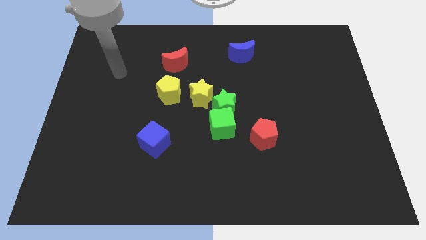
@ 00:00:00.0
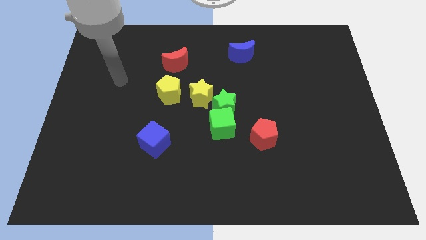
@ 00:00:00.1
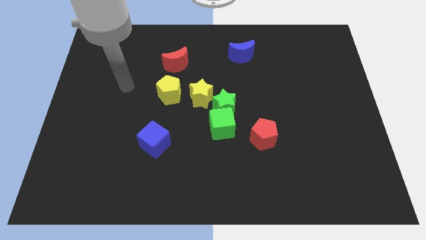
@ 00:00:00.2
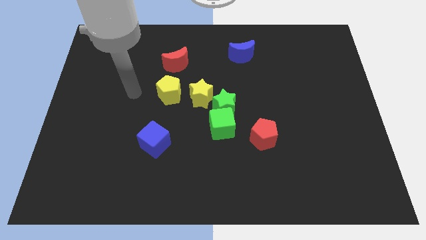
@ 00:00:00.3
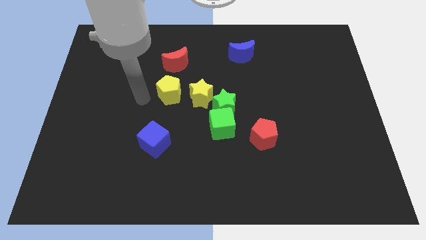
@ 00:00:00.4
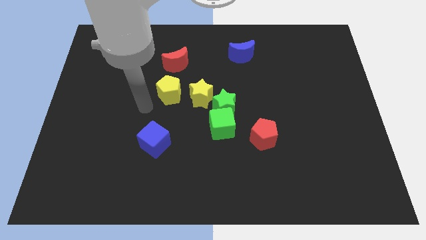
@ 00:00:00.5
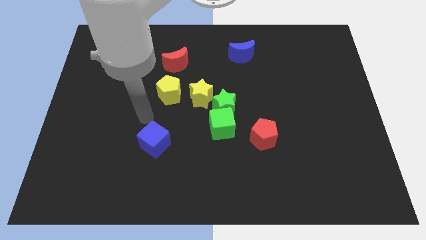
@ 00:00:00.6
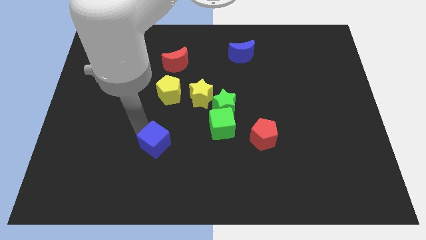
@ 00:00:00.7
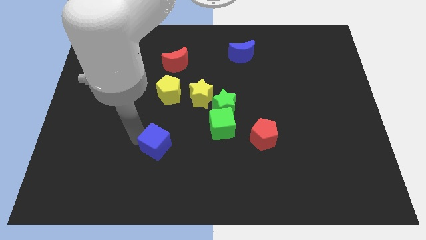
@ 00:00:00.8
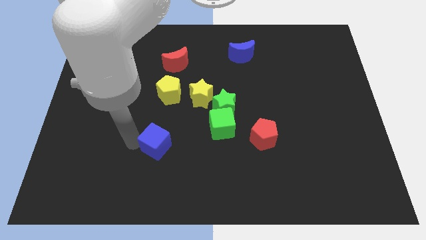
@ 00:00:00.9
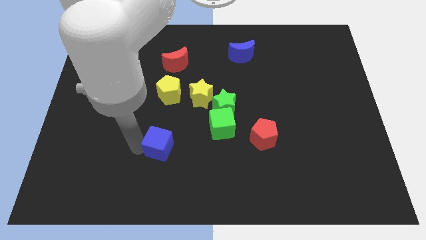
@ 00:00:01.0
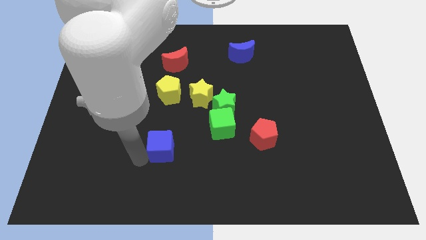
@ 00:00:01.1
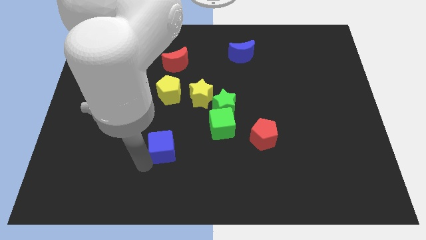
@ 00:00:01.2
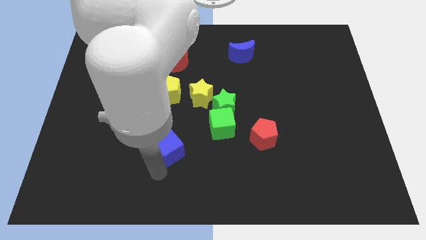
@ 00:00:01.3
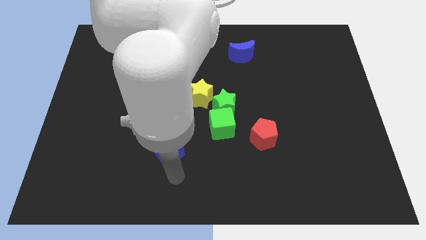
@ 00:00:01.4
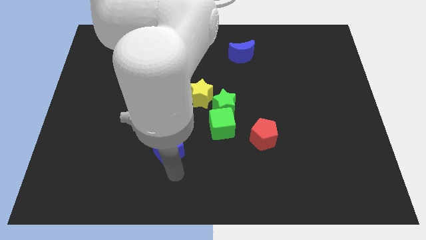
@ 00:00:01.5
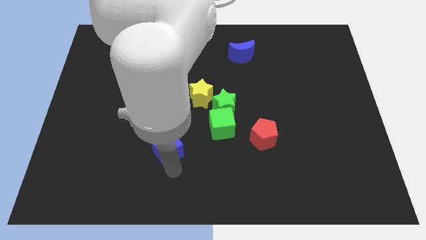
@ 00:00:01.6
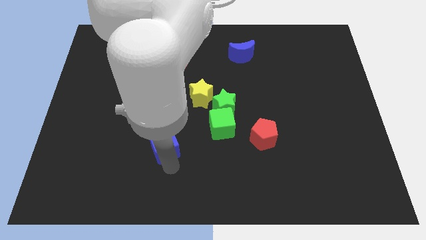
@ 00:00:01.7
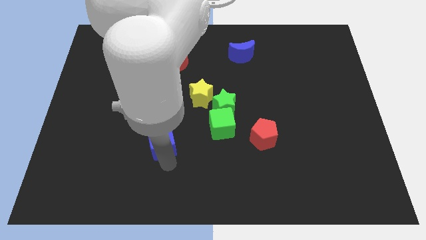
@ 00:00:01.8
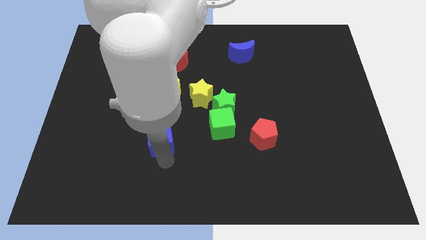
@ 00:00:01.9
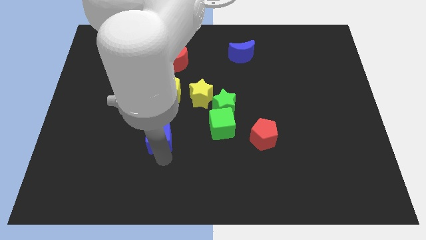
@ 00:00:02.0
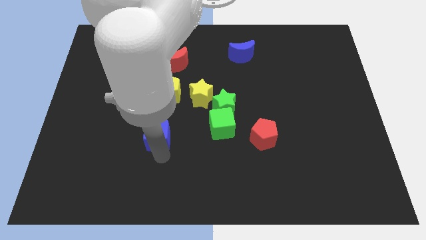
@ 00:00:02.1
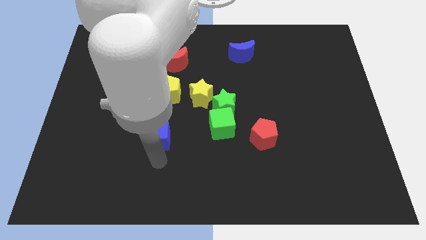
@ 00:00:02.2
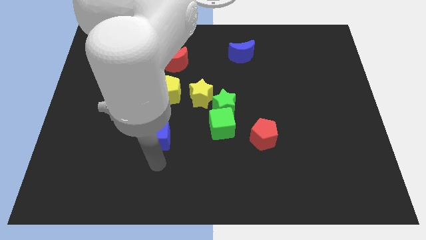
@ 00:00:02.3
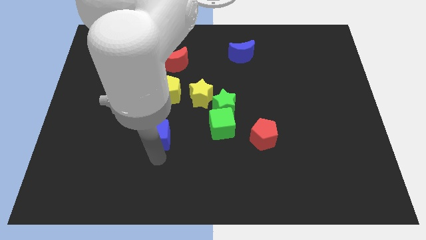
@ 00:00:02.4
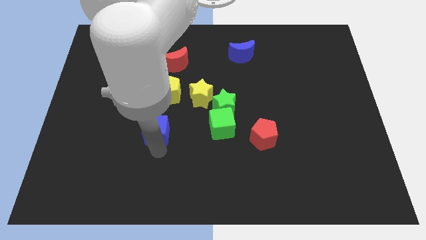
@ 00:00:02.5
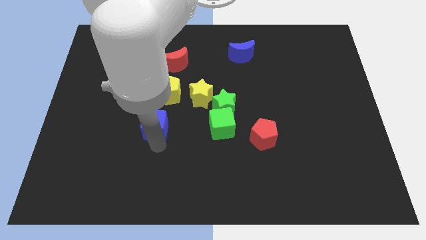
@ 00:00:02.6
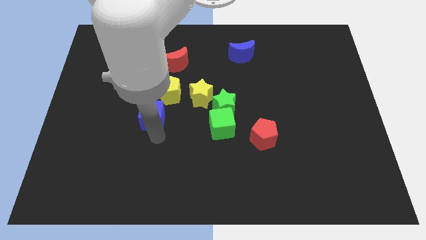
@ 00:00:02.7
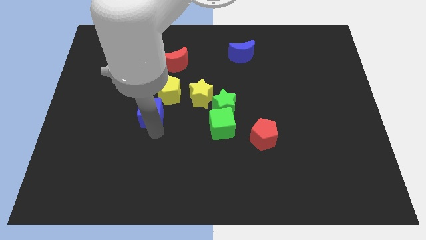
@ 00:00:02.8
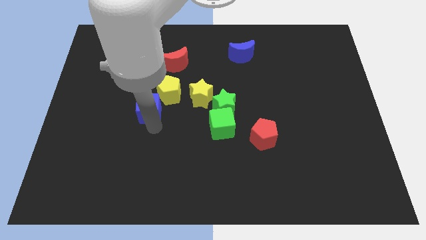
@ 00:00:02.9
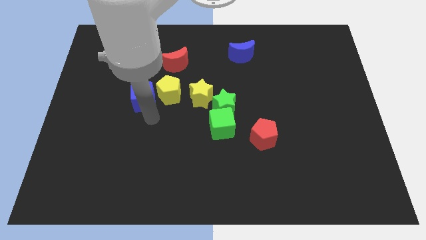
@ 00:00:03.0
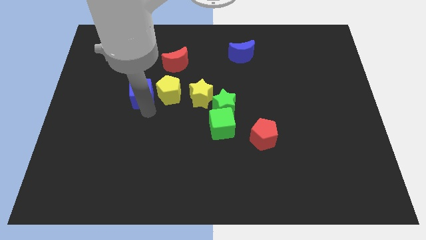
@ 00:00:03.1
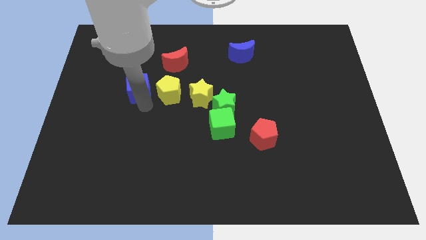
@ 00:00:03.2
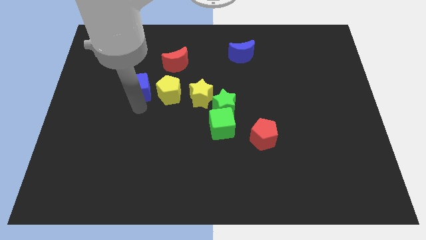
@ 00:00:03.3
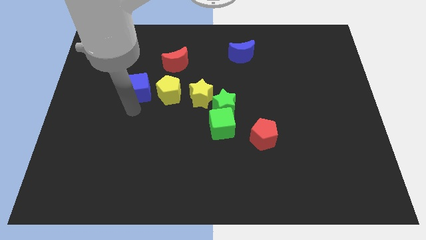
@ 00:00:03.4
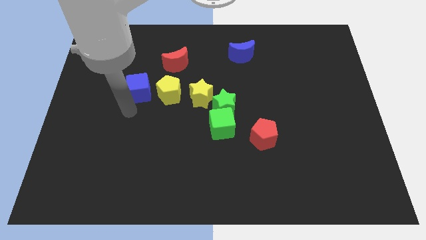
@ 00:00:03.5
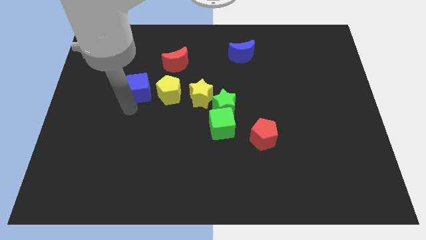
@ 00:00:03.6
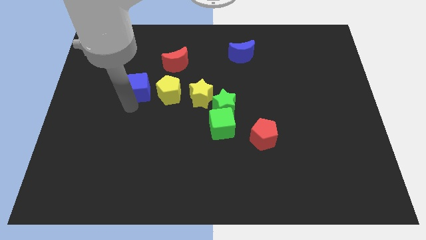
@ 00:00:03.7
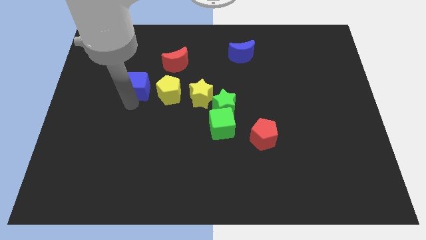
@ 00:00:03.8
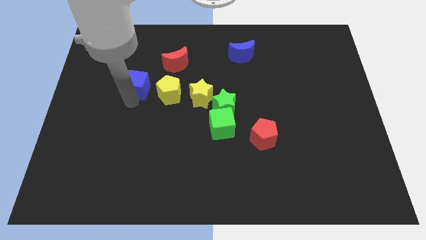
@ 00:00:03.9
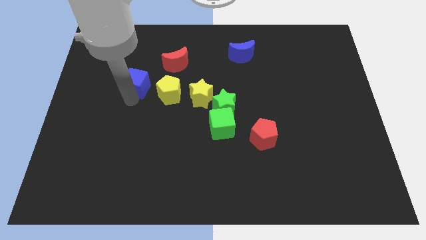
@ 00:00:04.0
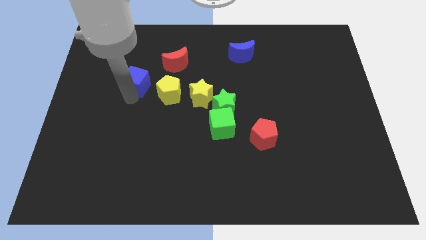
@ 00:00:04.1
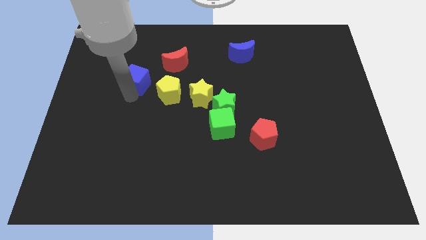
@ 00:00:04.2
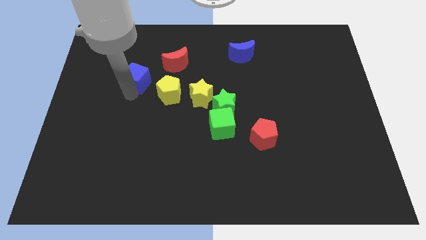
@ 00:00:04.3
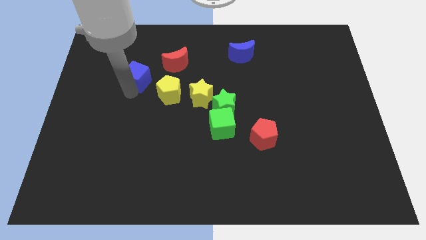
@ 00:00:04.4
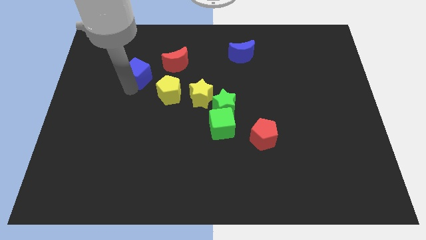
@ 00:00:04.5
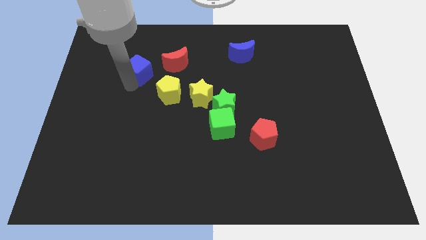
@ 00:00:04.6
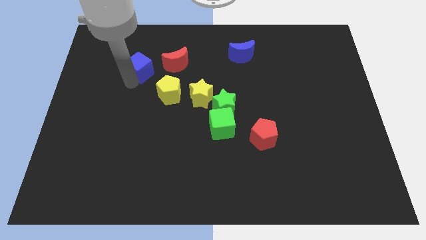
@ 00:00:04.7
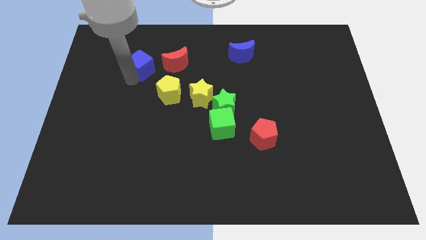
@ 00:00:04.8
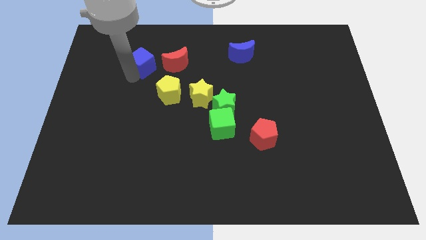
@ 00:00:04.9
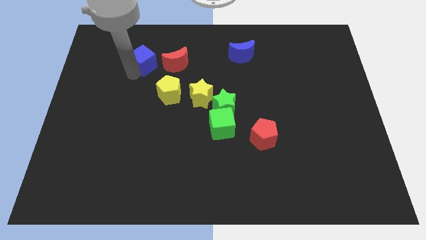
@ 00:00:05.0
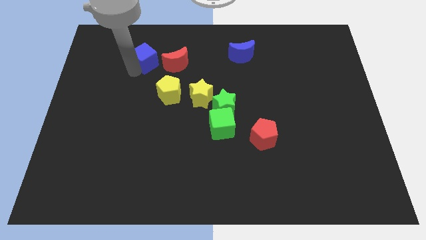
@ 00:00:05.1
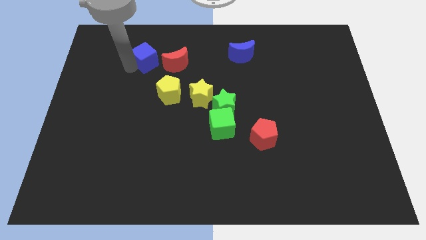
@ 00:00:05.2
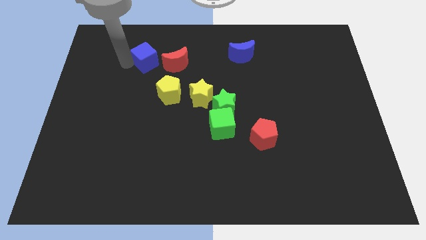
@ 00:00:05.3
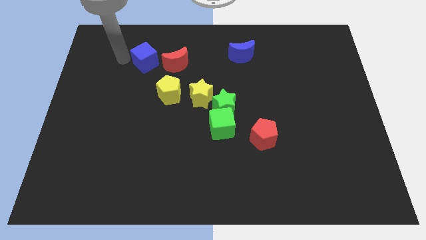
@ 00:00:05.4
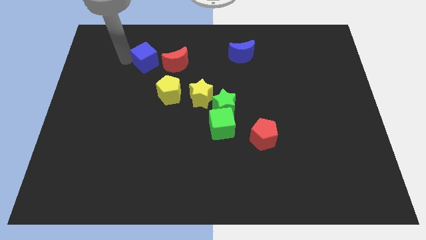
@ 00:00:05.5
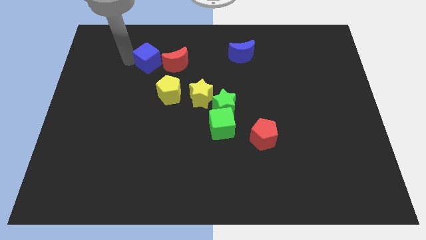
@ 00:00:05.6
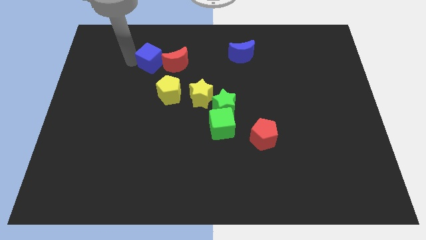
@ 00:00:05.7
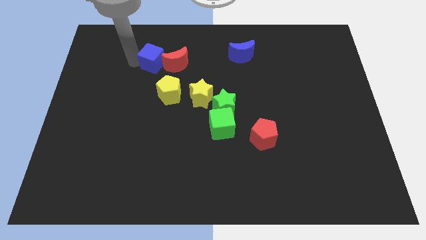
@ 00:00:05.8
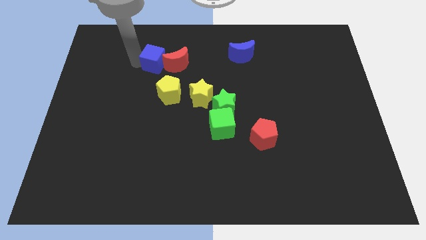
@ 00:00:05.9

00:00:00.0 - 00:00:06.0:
put the blue cube to the red moon

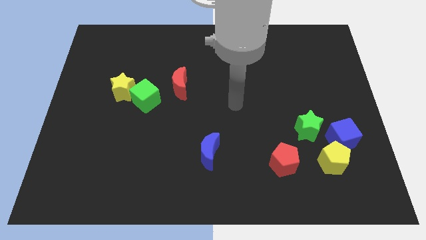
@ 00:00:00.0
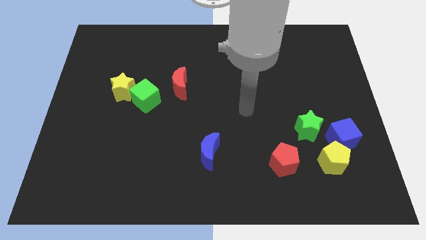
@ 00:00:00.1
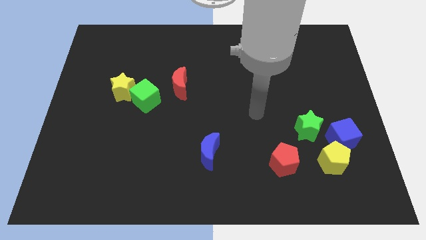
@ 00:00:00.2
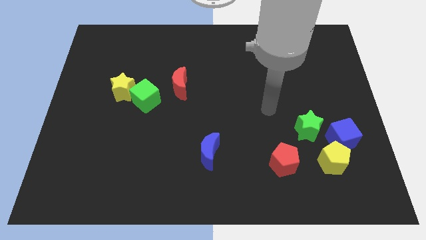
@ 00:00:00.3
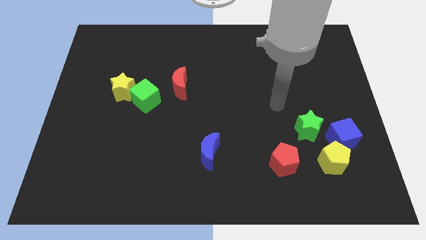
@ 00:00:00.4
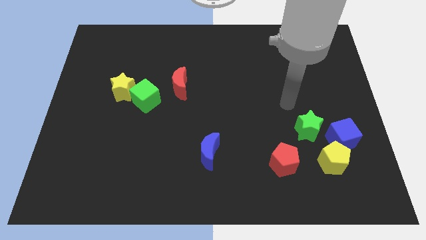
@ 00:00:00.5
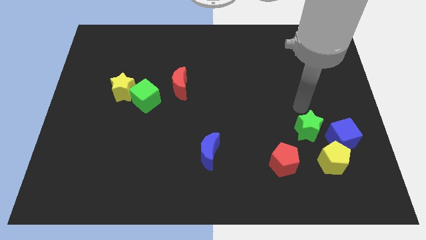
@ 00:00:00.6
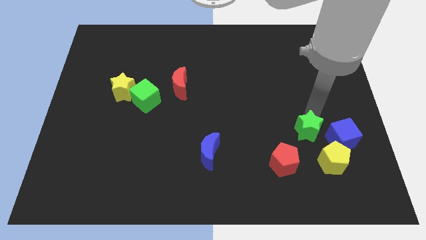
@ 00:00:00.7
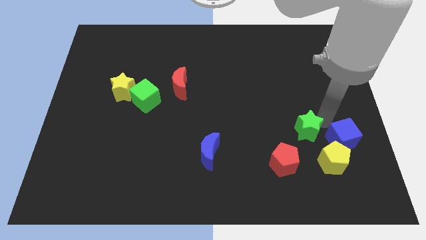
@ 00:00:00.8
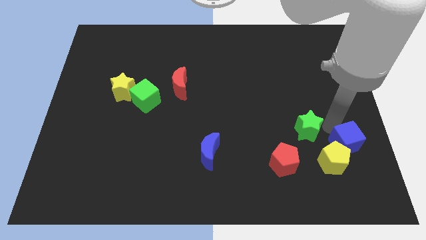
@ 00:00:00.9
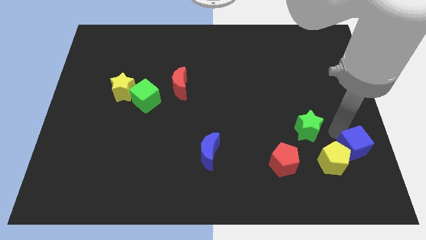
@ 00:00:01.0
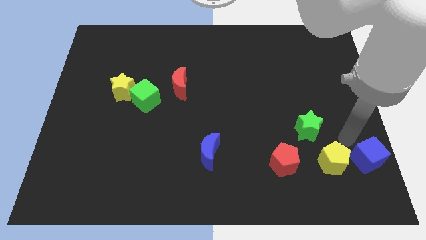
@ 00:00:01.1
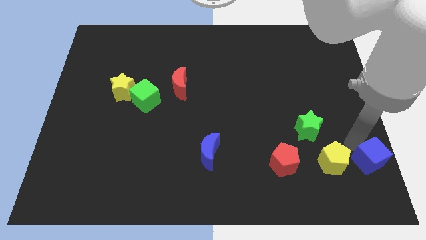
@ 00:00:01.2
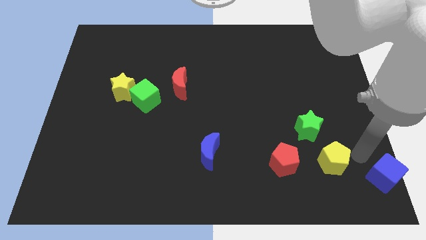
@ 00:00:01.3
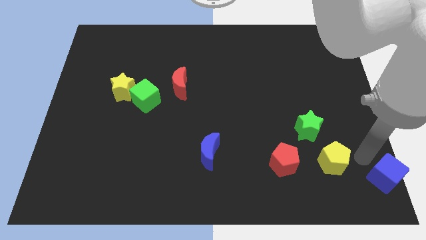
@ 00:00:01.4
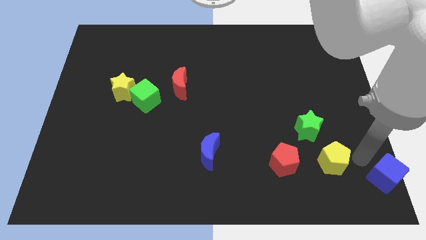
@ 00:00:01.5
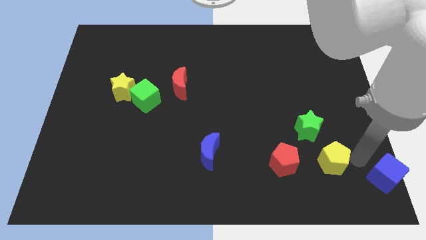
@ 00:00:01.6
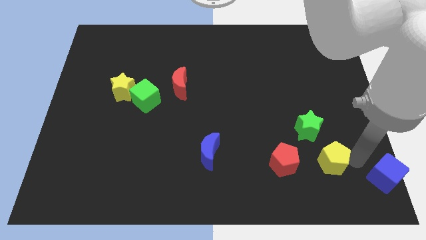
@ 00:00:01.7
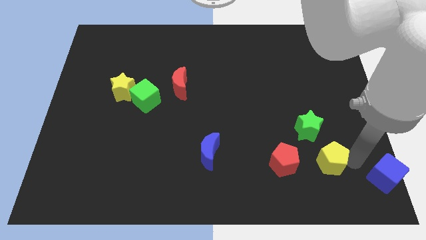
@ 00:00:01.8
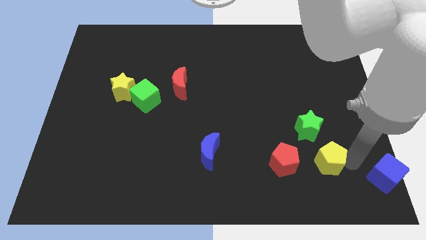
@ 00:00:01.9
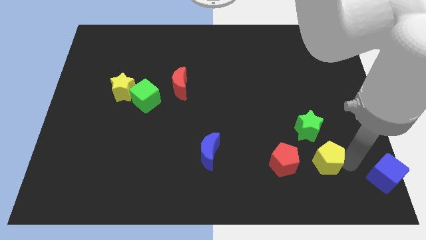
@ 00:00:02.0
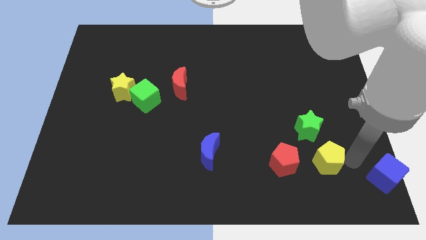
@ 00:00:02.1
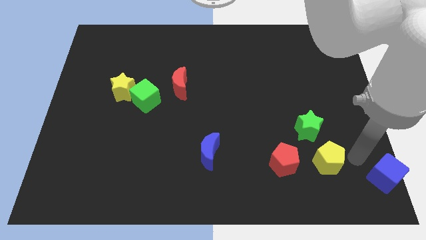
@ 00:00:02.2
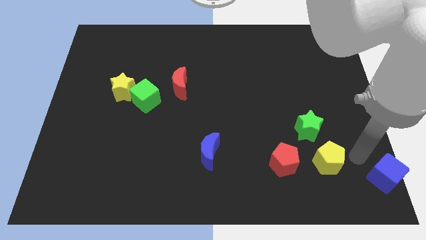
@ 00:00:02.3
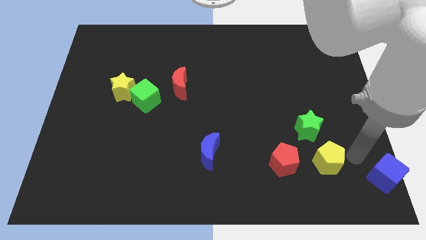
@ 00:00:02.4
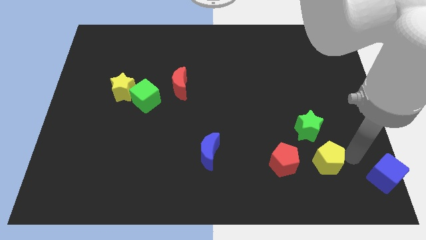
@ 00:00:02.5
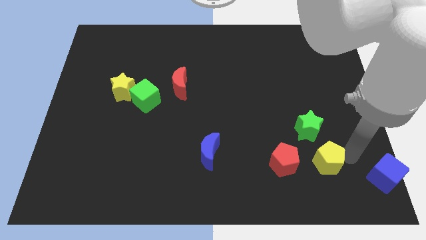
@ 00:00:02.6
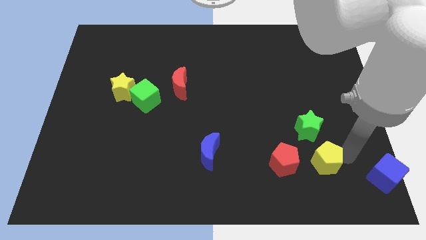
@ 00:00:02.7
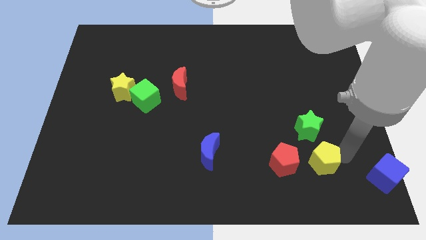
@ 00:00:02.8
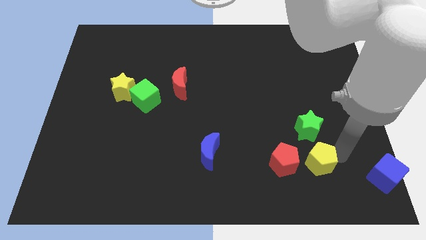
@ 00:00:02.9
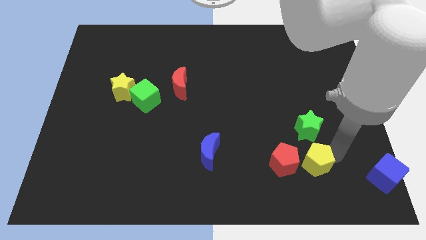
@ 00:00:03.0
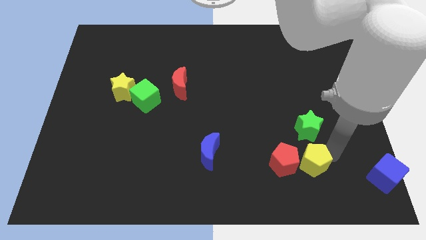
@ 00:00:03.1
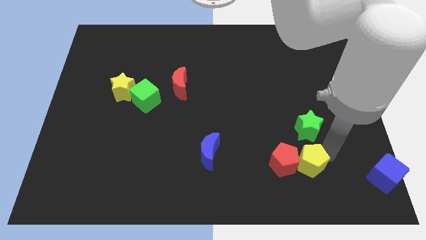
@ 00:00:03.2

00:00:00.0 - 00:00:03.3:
put the yellow pentagon towards the red pentagon
